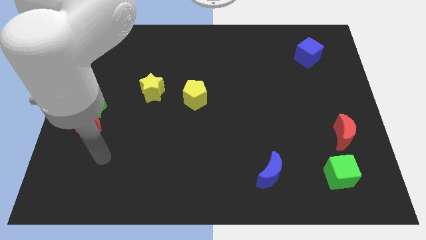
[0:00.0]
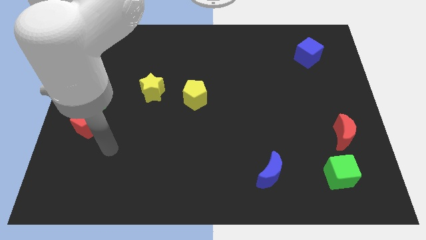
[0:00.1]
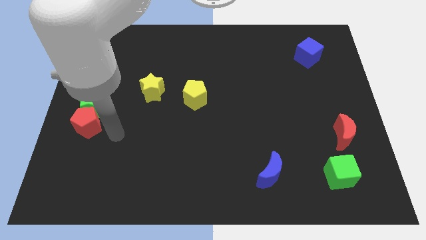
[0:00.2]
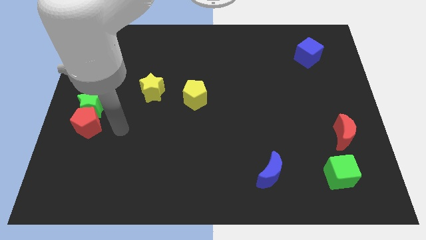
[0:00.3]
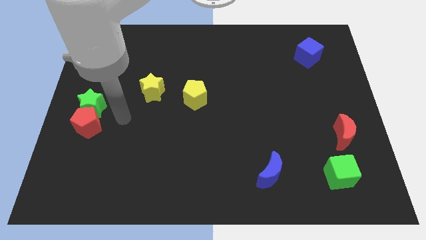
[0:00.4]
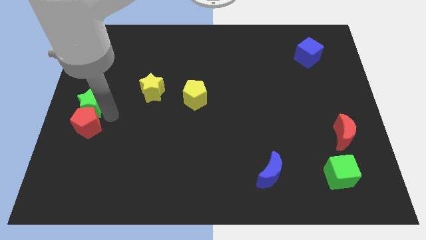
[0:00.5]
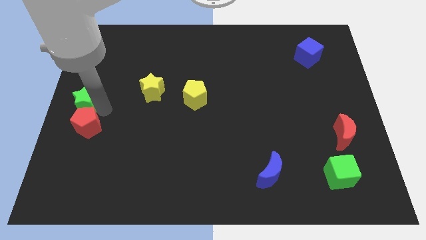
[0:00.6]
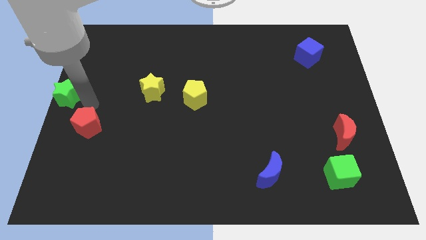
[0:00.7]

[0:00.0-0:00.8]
pull the red pentagon apart from the green star

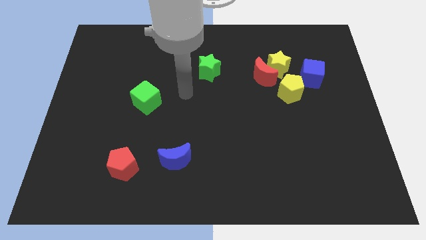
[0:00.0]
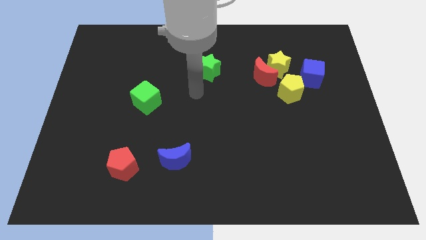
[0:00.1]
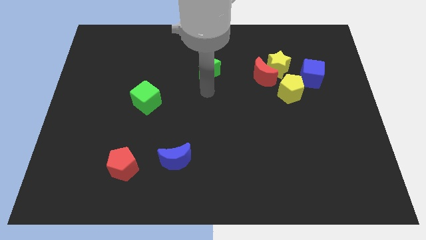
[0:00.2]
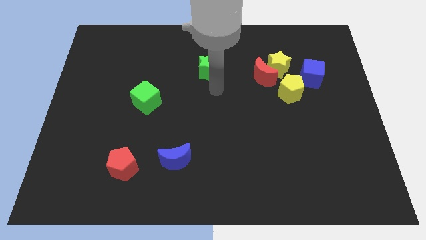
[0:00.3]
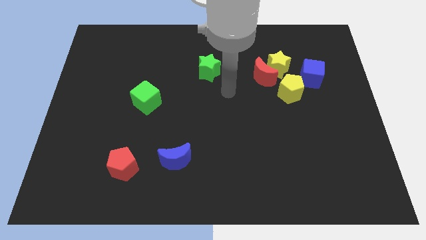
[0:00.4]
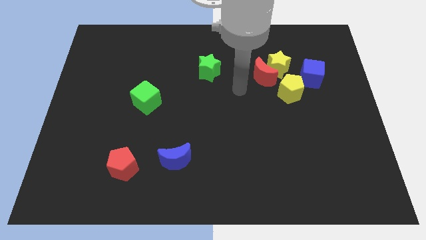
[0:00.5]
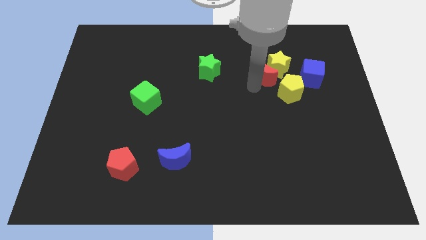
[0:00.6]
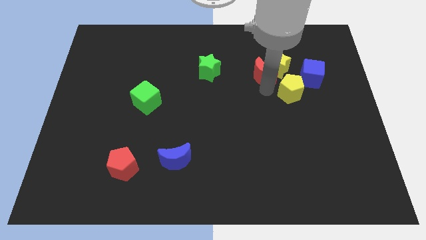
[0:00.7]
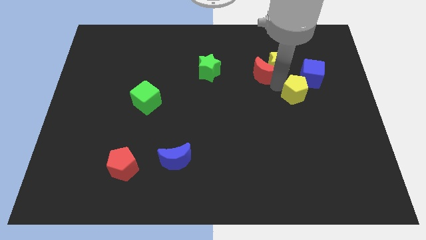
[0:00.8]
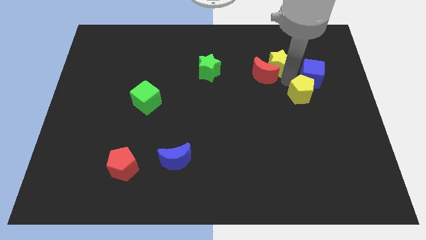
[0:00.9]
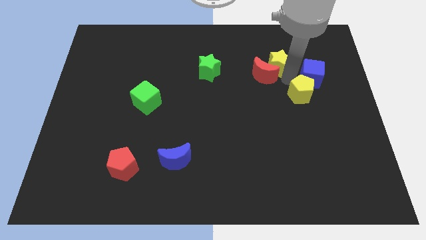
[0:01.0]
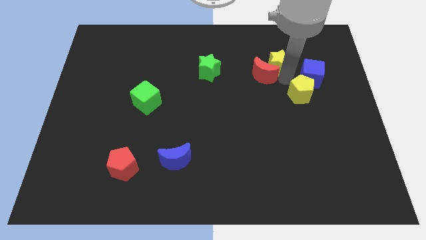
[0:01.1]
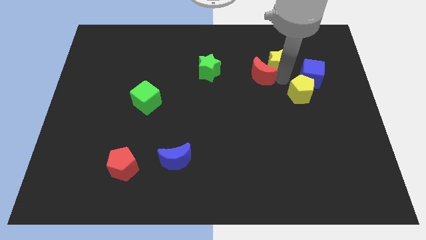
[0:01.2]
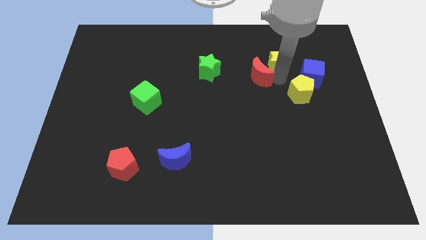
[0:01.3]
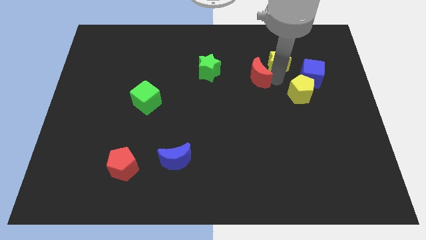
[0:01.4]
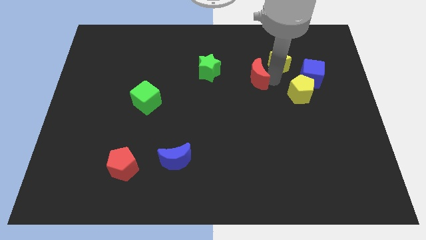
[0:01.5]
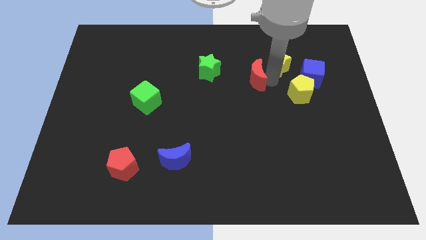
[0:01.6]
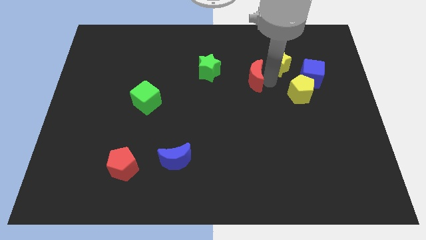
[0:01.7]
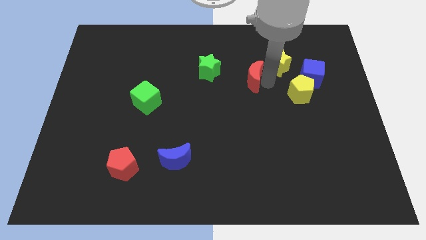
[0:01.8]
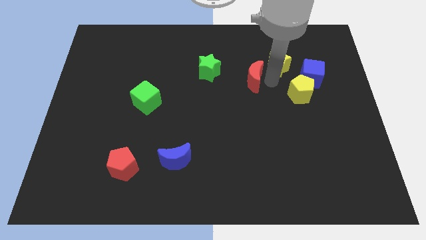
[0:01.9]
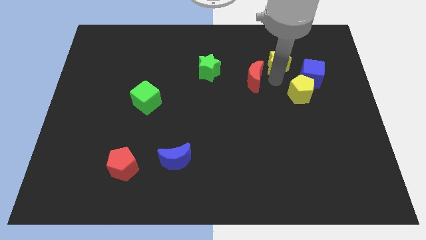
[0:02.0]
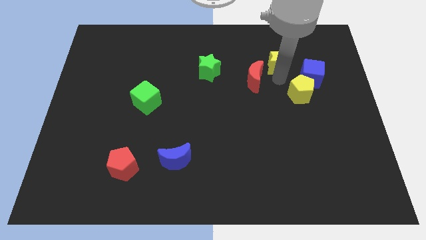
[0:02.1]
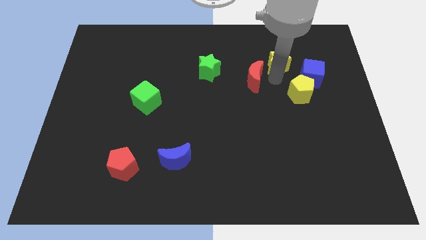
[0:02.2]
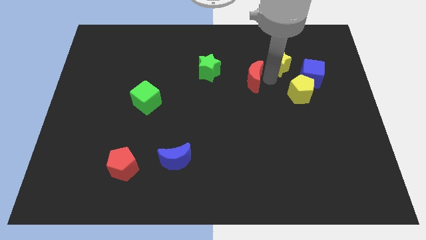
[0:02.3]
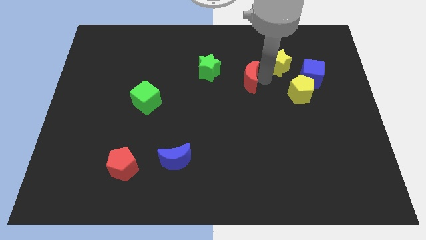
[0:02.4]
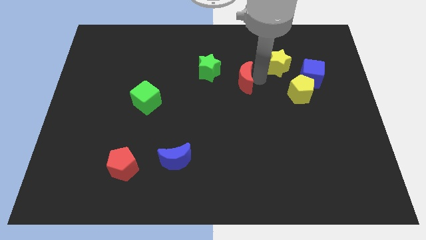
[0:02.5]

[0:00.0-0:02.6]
move the red moon away from the yellow star and yellow pentagon

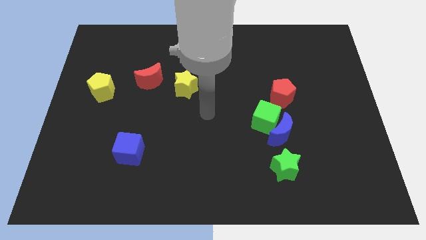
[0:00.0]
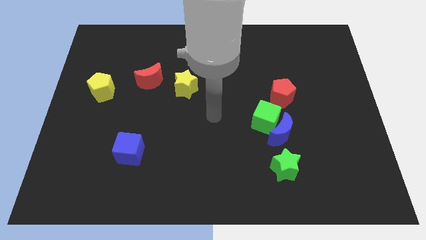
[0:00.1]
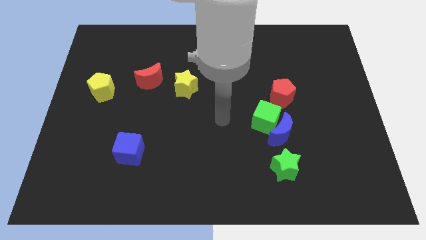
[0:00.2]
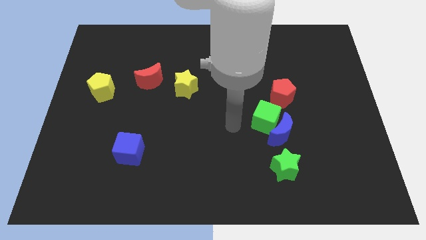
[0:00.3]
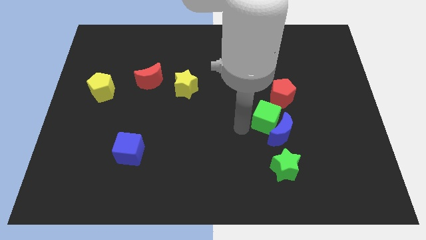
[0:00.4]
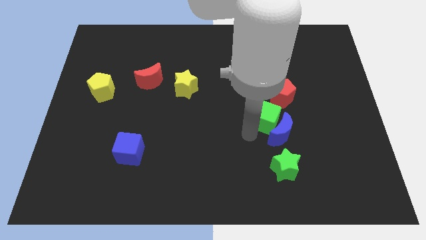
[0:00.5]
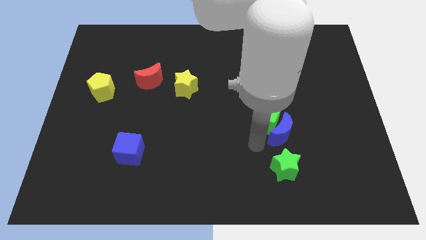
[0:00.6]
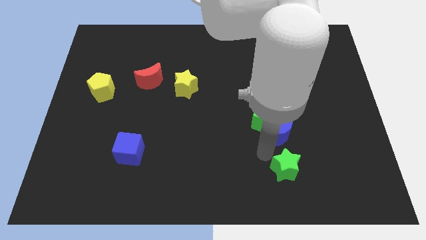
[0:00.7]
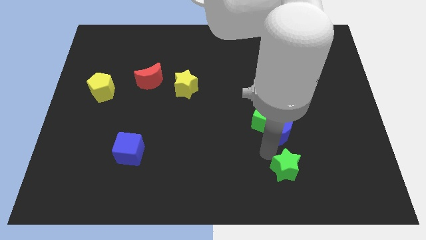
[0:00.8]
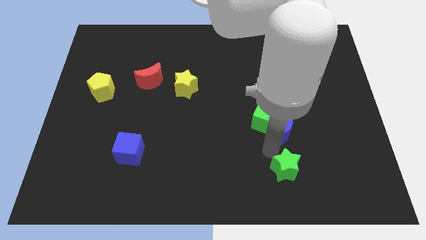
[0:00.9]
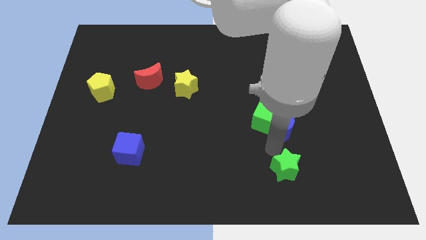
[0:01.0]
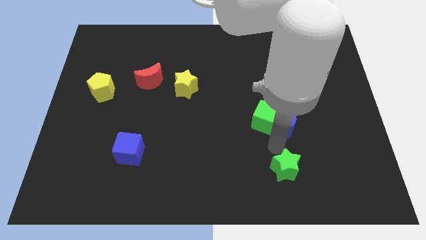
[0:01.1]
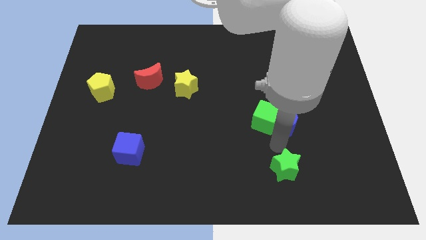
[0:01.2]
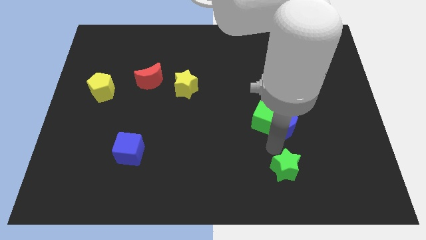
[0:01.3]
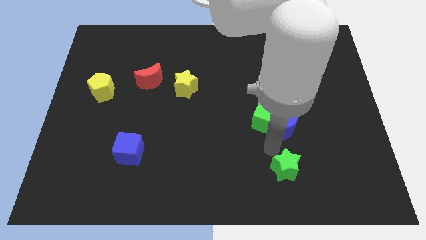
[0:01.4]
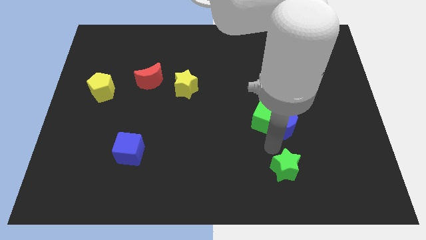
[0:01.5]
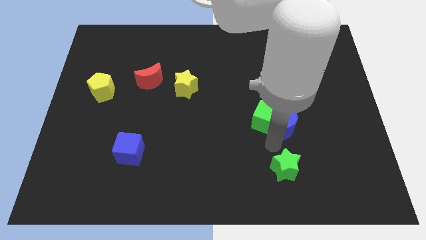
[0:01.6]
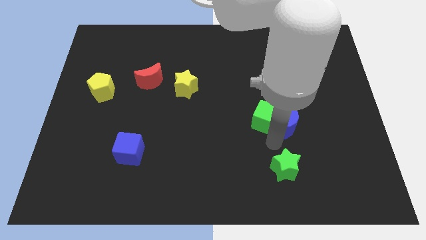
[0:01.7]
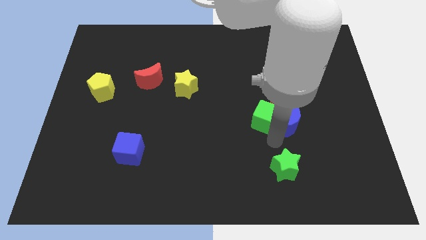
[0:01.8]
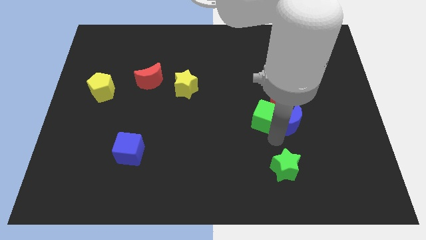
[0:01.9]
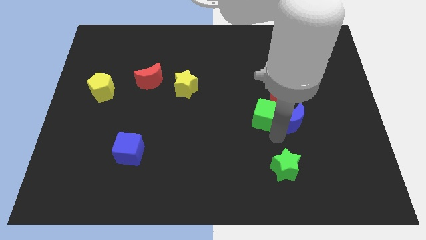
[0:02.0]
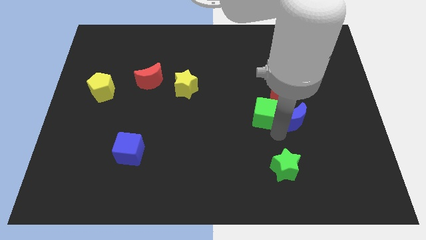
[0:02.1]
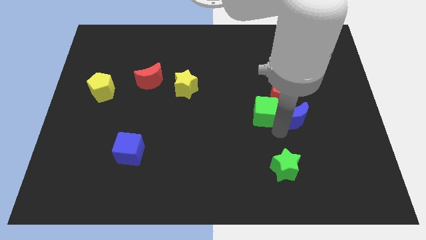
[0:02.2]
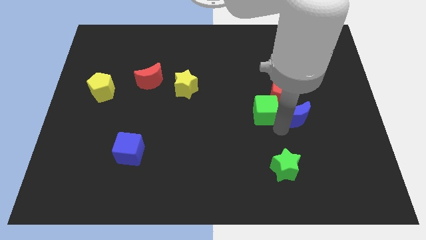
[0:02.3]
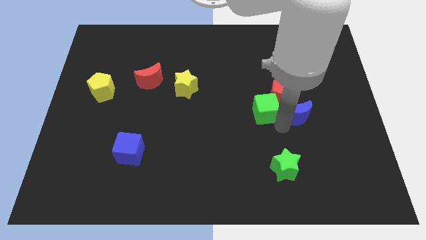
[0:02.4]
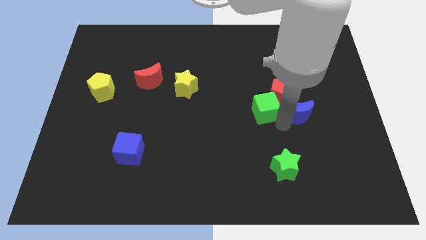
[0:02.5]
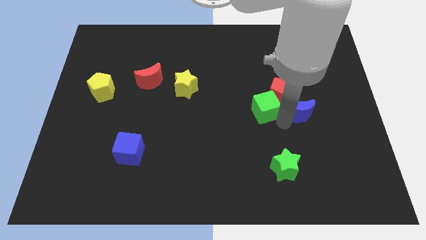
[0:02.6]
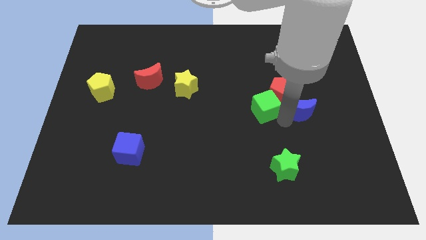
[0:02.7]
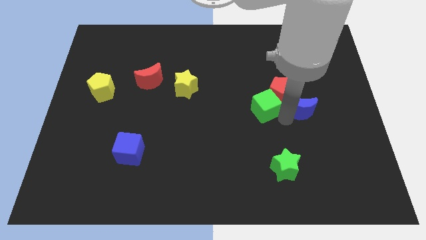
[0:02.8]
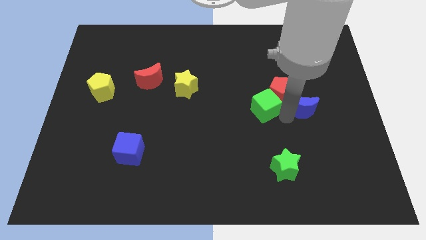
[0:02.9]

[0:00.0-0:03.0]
separate the blue moon from the green cube and green star

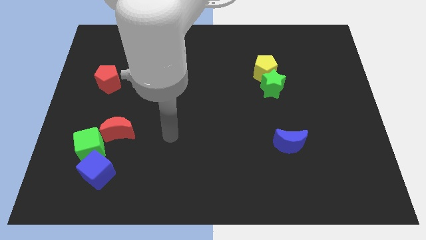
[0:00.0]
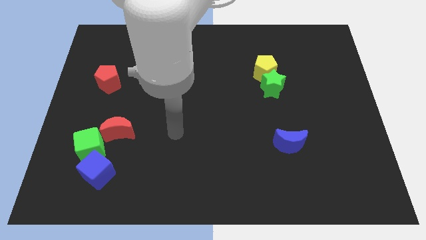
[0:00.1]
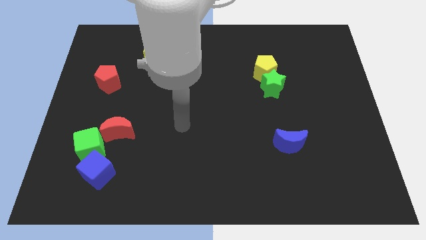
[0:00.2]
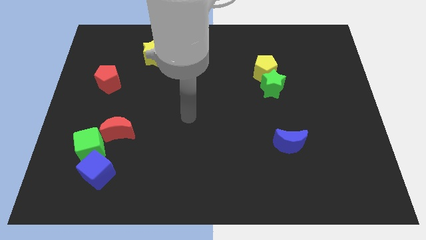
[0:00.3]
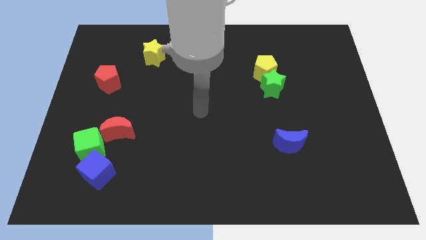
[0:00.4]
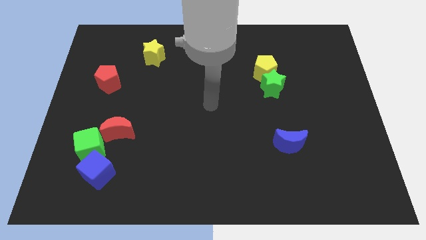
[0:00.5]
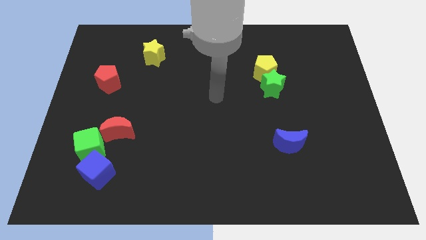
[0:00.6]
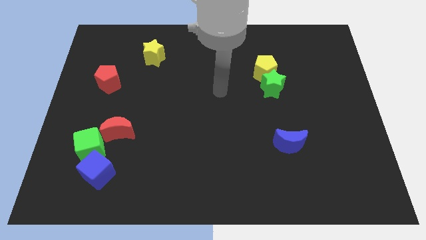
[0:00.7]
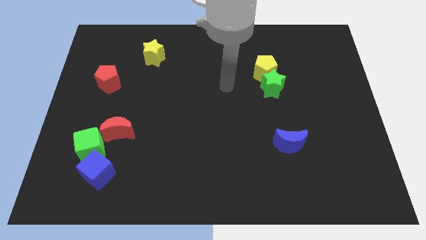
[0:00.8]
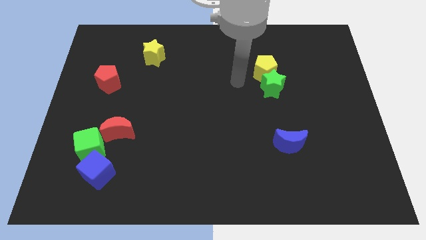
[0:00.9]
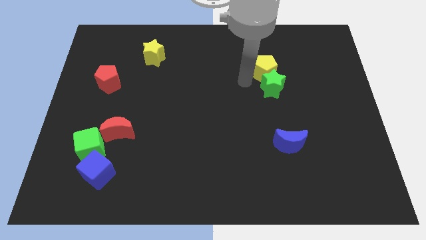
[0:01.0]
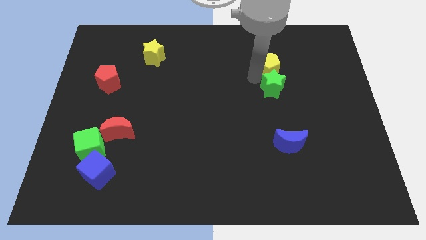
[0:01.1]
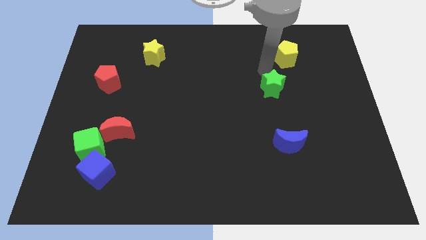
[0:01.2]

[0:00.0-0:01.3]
pull the green star apart from the yellow pentagon

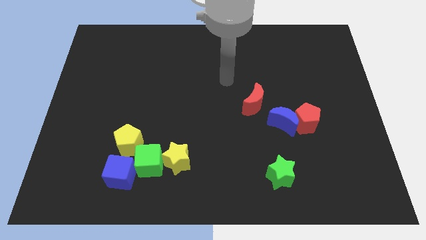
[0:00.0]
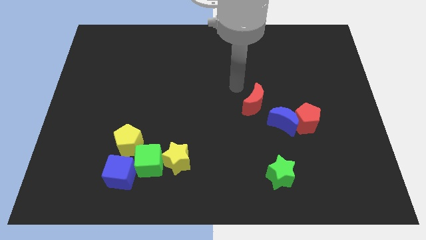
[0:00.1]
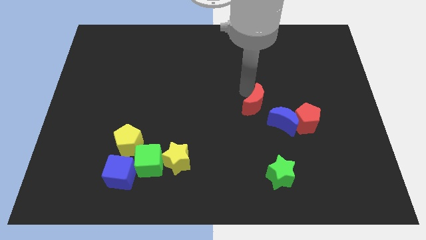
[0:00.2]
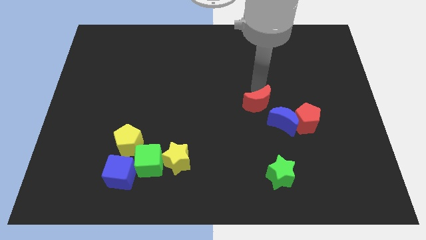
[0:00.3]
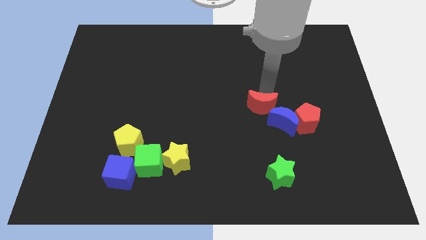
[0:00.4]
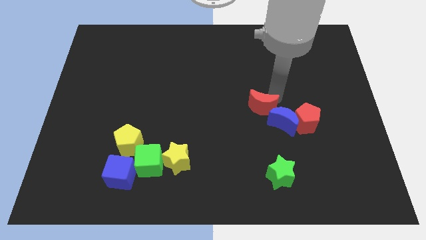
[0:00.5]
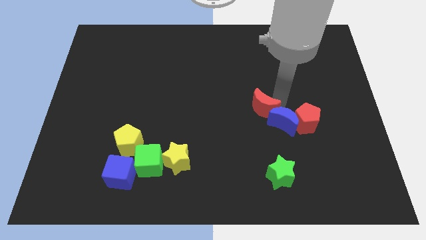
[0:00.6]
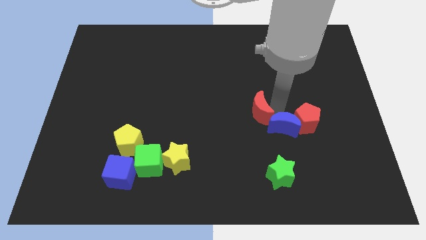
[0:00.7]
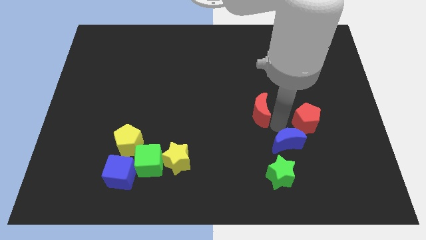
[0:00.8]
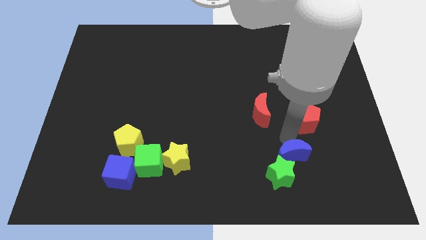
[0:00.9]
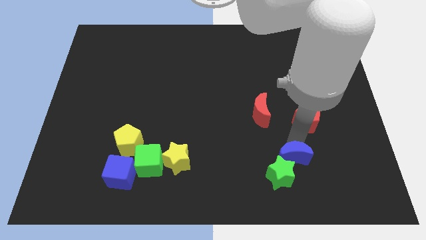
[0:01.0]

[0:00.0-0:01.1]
move the red pentagon away from the blue moon

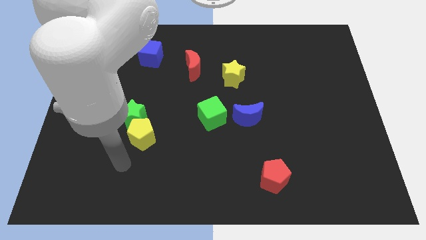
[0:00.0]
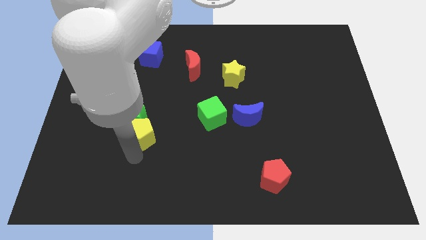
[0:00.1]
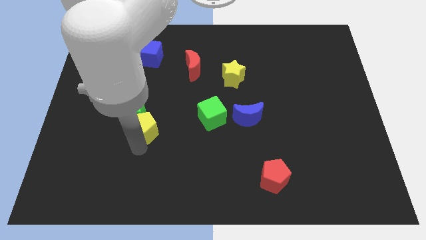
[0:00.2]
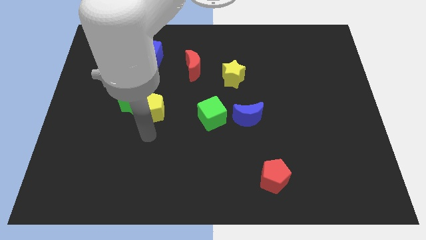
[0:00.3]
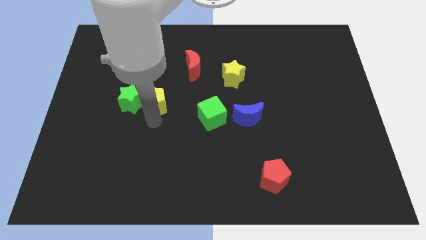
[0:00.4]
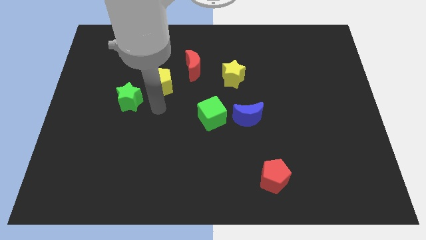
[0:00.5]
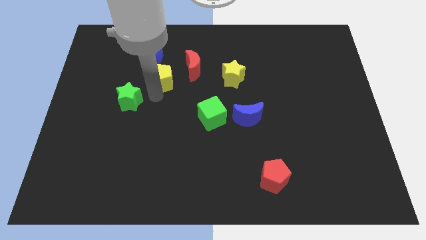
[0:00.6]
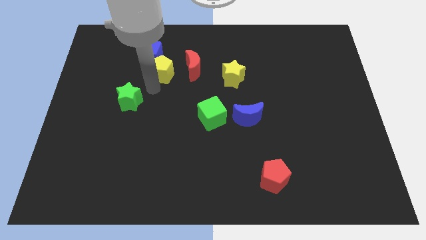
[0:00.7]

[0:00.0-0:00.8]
move the green star away from the yellow pentagon
